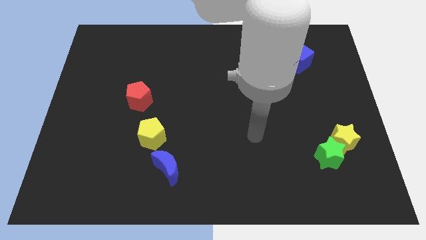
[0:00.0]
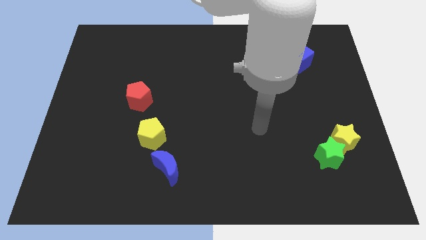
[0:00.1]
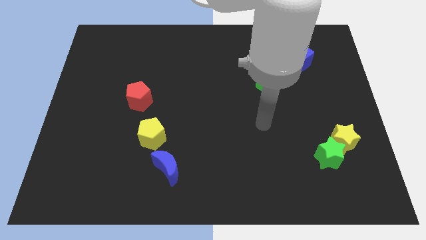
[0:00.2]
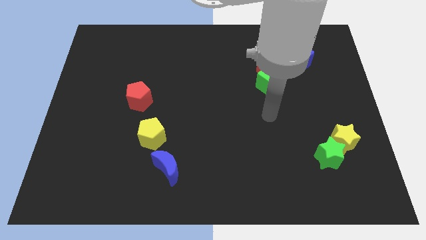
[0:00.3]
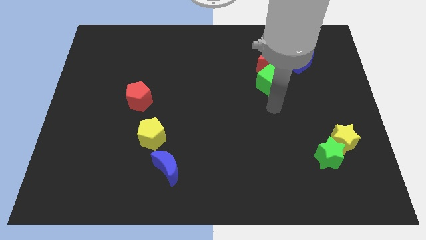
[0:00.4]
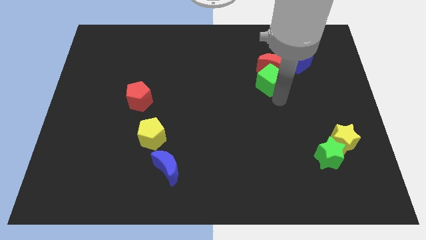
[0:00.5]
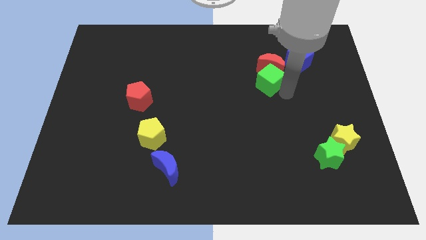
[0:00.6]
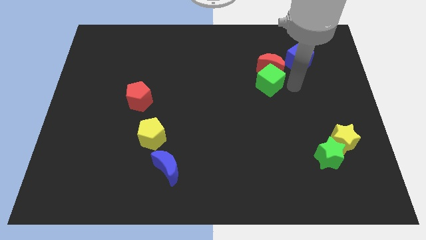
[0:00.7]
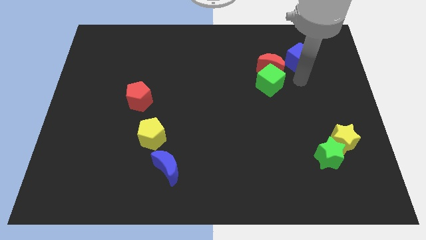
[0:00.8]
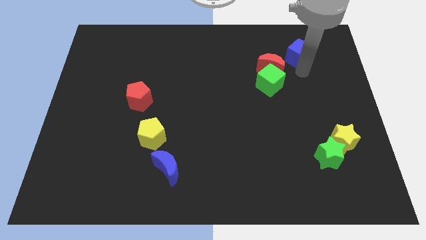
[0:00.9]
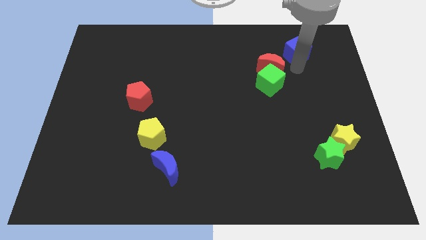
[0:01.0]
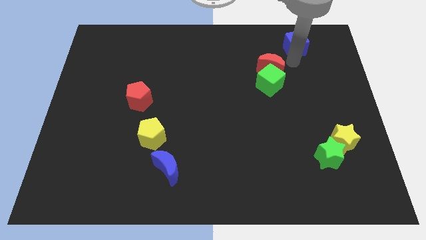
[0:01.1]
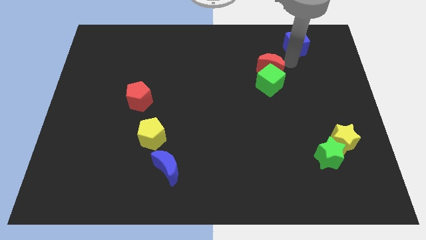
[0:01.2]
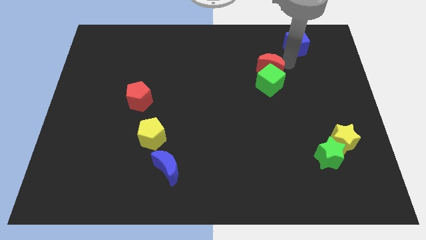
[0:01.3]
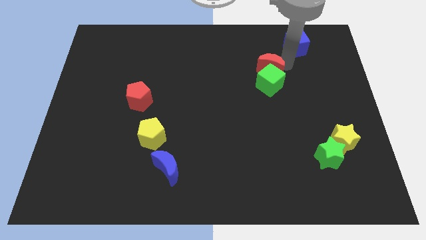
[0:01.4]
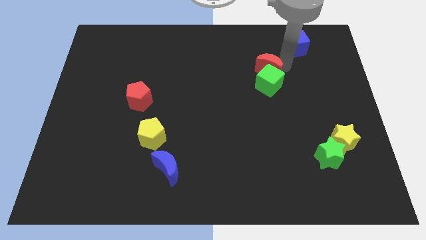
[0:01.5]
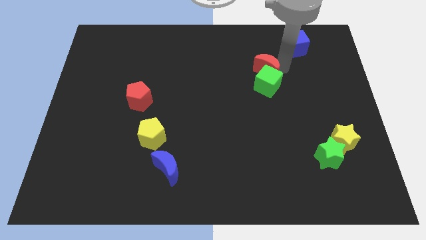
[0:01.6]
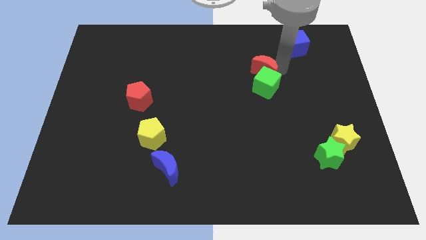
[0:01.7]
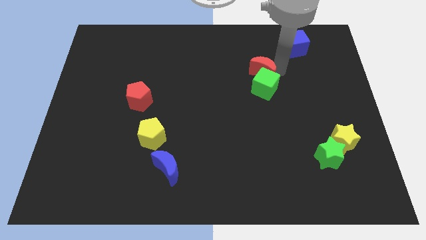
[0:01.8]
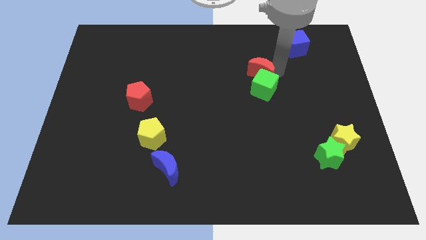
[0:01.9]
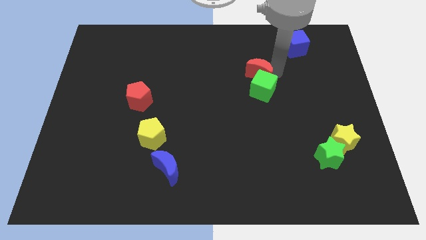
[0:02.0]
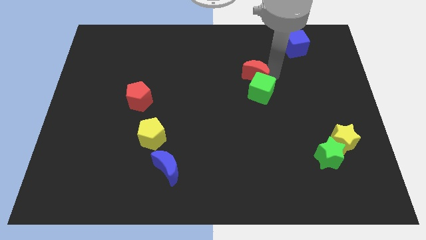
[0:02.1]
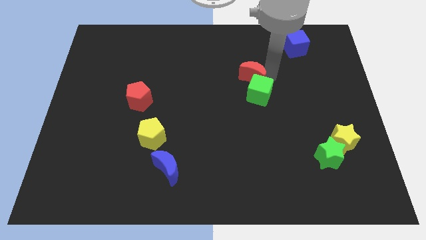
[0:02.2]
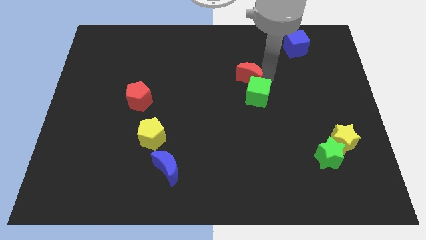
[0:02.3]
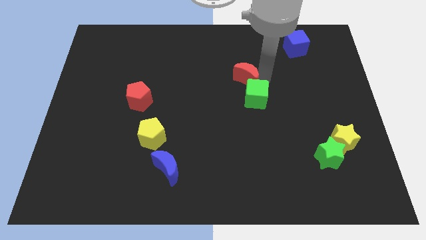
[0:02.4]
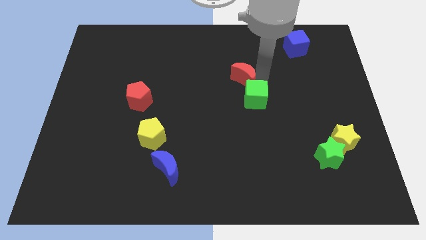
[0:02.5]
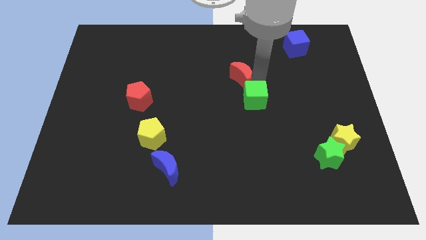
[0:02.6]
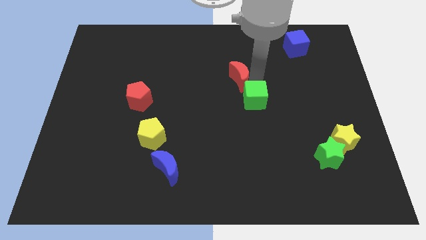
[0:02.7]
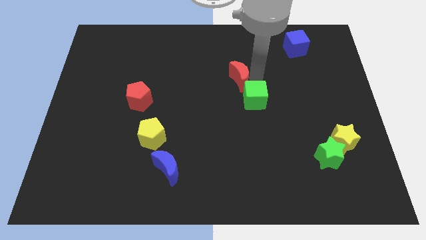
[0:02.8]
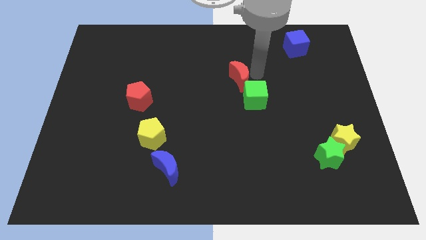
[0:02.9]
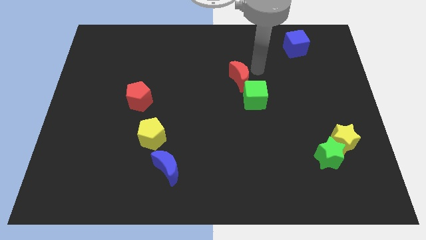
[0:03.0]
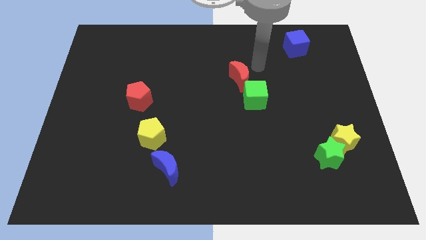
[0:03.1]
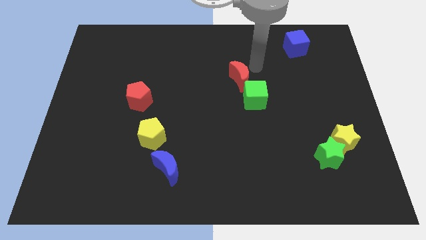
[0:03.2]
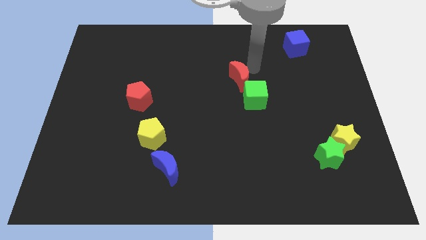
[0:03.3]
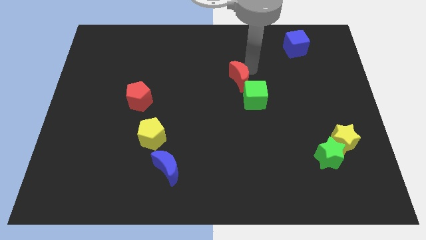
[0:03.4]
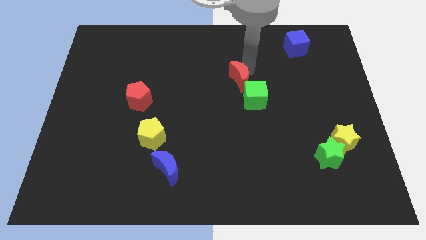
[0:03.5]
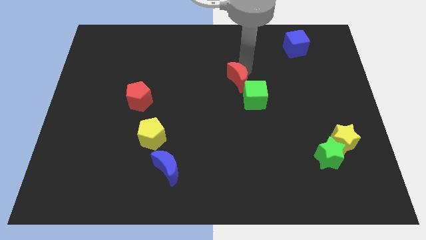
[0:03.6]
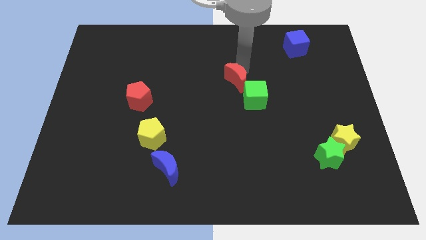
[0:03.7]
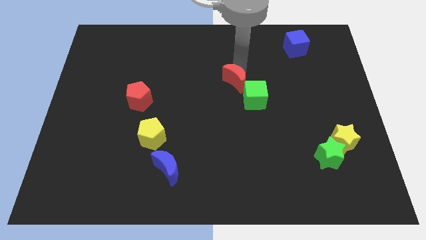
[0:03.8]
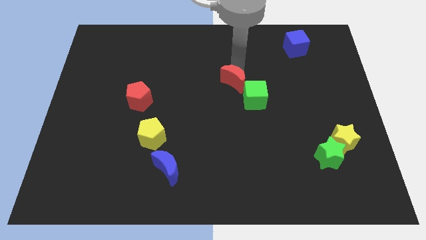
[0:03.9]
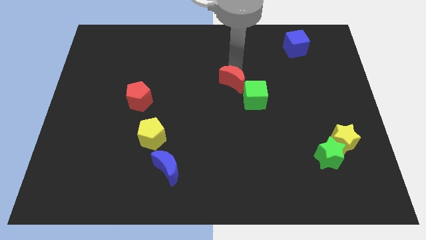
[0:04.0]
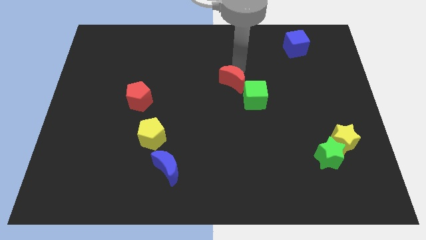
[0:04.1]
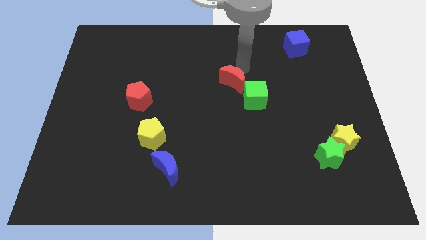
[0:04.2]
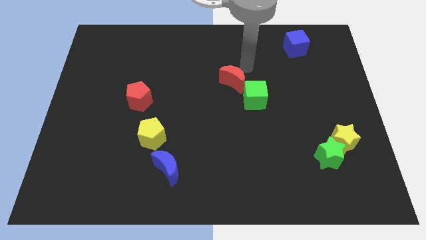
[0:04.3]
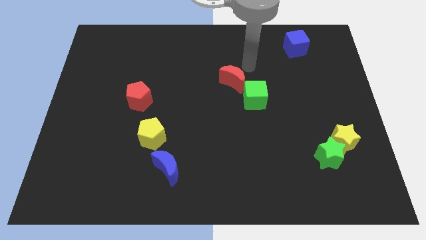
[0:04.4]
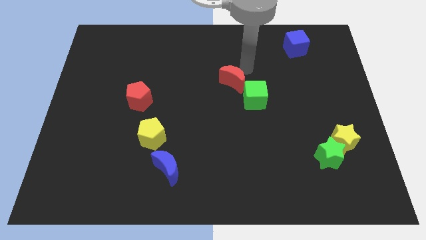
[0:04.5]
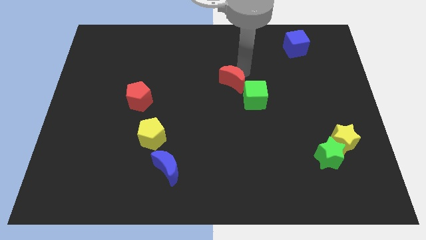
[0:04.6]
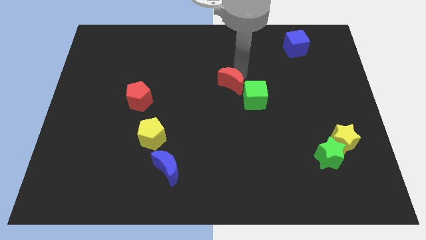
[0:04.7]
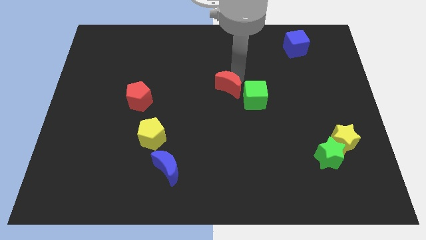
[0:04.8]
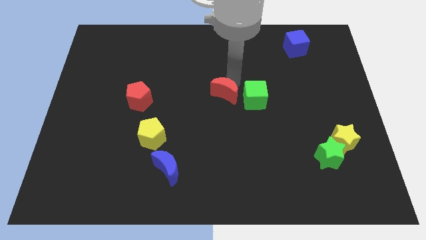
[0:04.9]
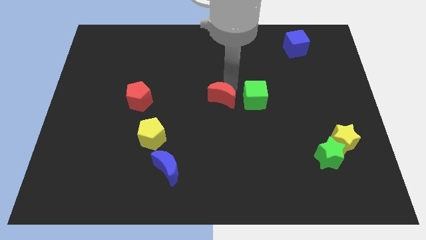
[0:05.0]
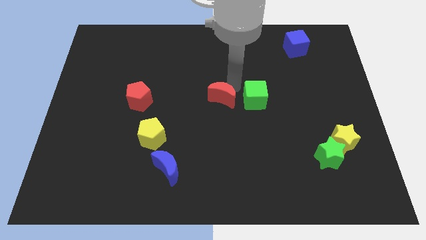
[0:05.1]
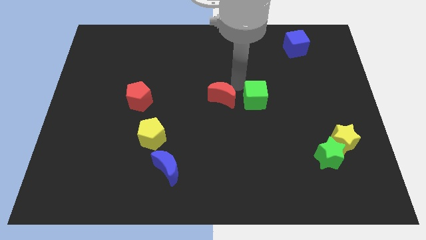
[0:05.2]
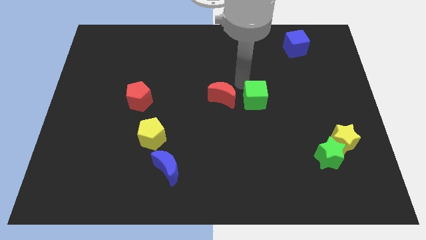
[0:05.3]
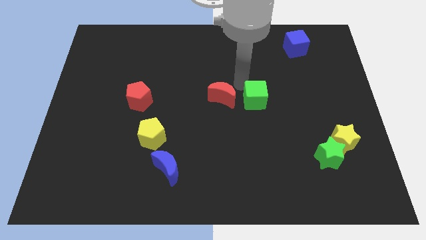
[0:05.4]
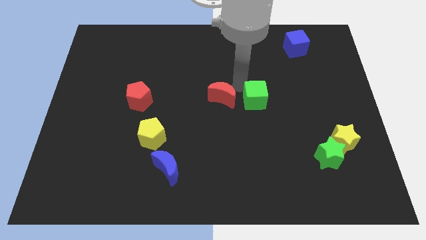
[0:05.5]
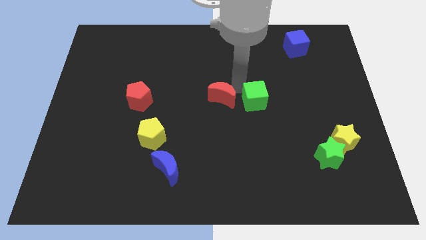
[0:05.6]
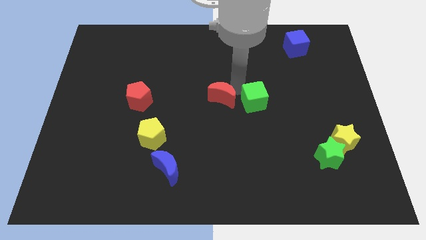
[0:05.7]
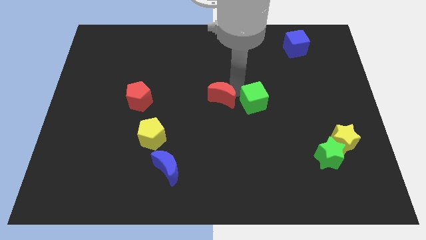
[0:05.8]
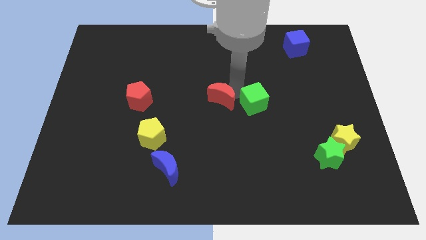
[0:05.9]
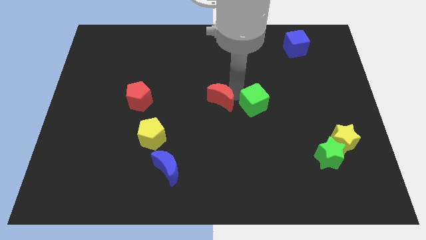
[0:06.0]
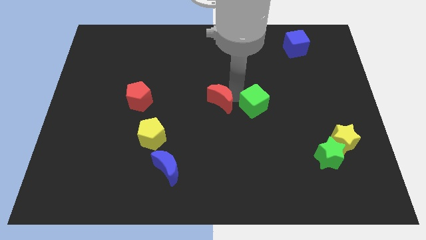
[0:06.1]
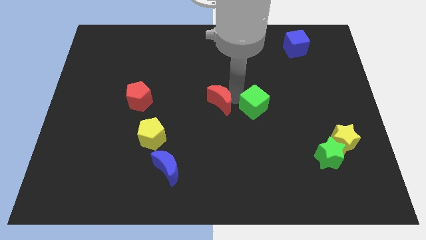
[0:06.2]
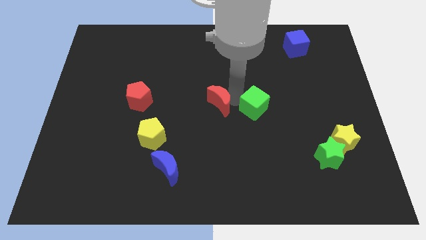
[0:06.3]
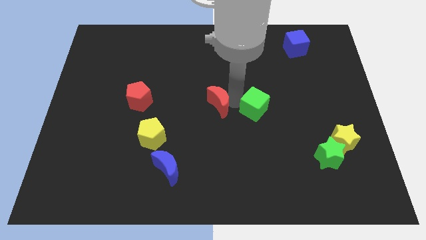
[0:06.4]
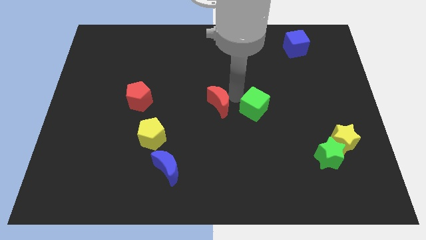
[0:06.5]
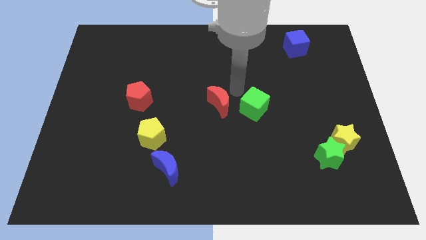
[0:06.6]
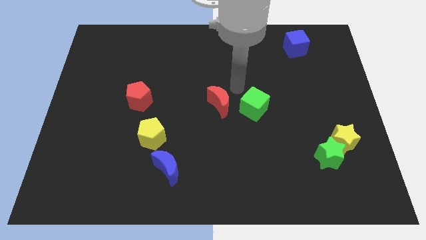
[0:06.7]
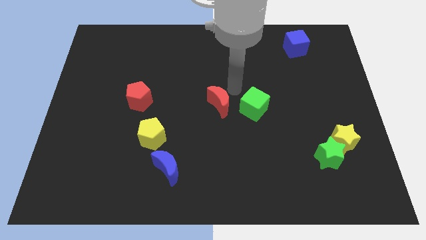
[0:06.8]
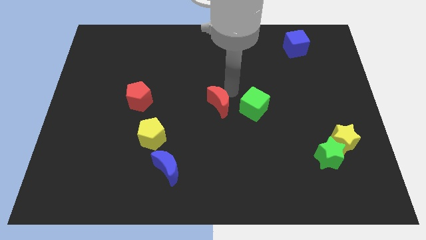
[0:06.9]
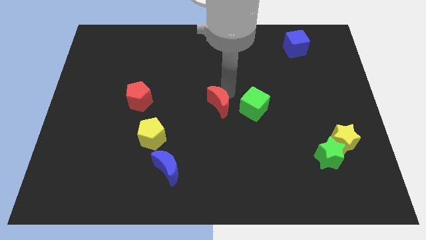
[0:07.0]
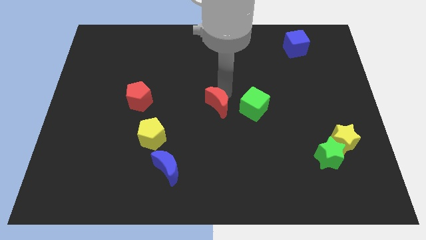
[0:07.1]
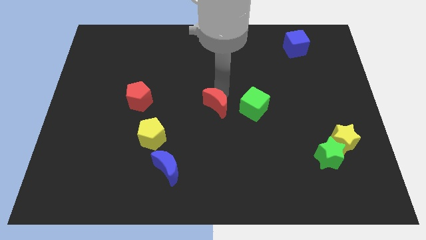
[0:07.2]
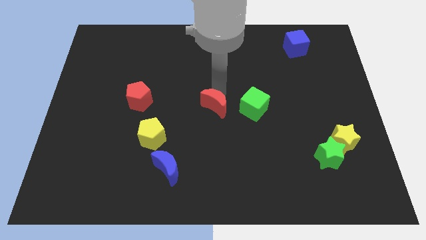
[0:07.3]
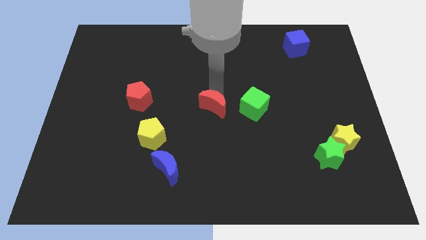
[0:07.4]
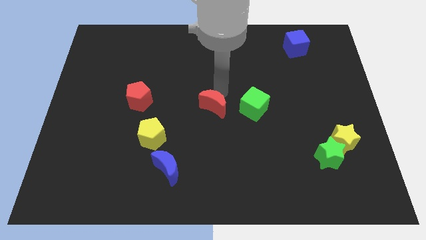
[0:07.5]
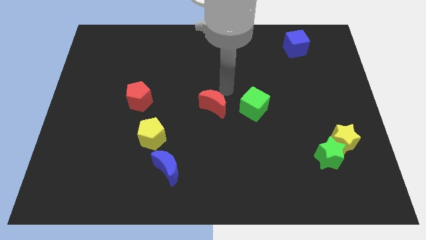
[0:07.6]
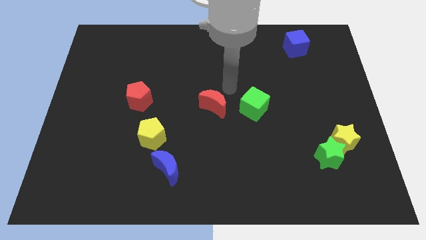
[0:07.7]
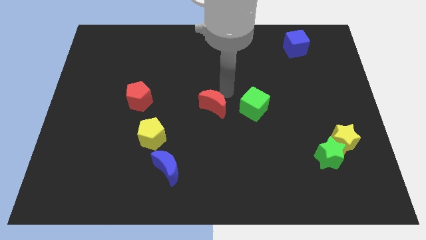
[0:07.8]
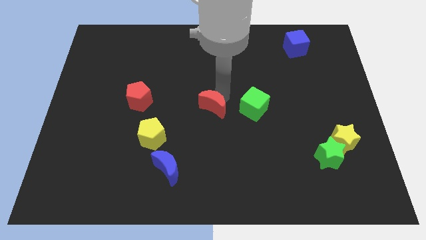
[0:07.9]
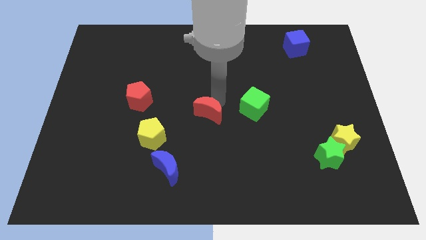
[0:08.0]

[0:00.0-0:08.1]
slide the red moon down and then to the left

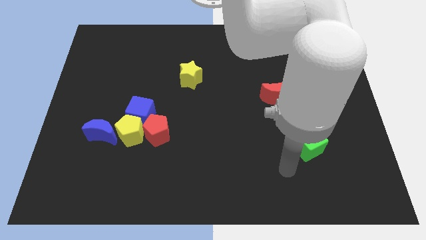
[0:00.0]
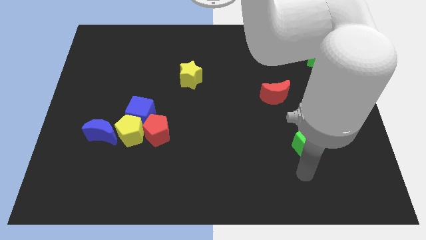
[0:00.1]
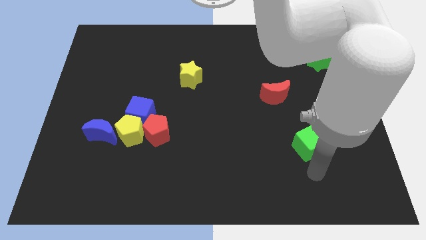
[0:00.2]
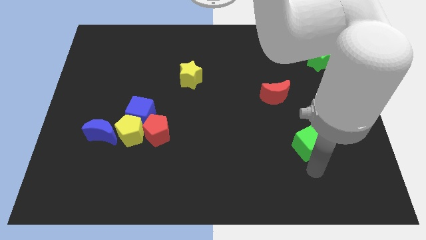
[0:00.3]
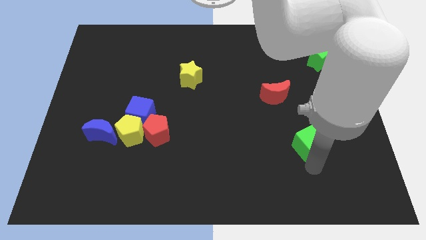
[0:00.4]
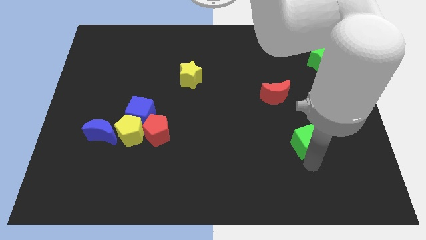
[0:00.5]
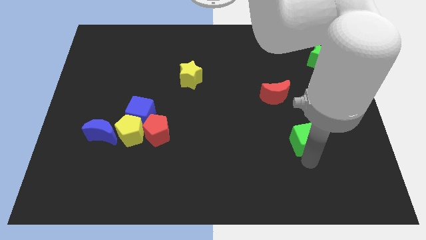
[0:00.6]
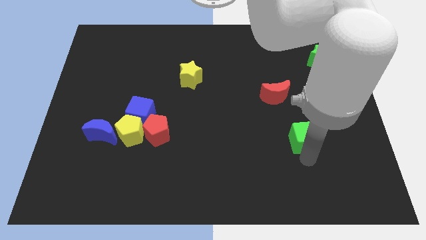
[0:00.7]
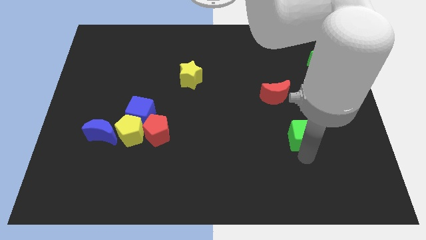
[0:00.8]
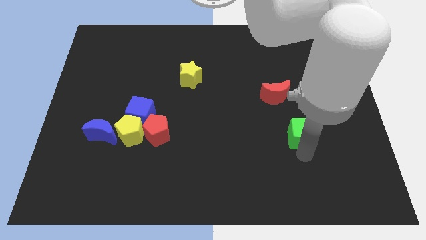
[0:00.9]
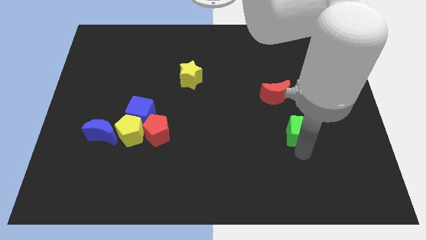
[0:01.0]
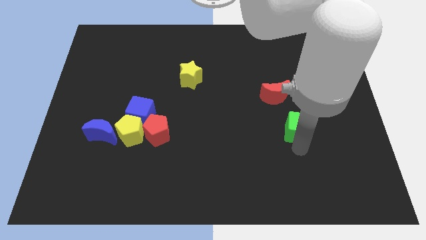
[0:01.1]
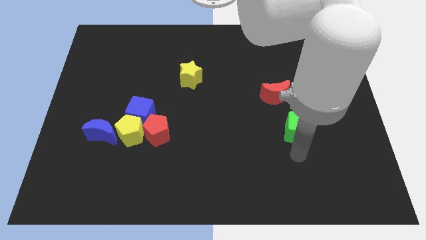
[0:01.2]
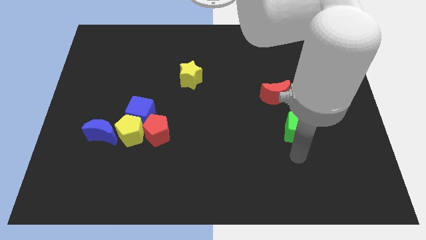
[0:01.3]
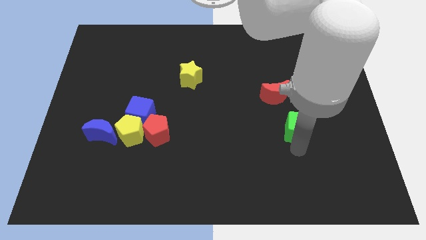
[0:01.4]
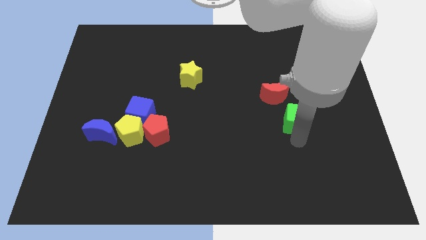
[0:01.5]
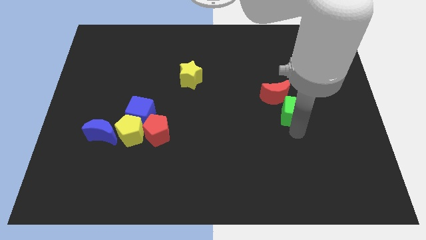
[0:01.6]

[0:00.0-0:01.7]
slightly push the green cube up
